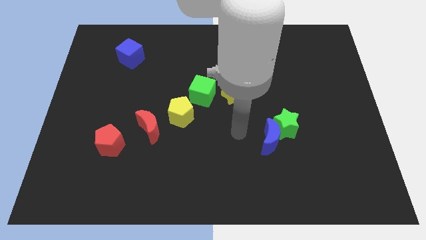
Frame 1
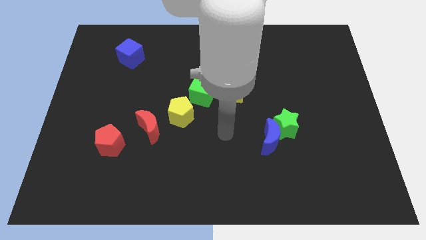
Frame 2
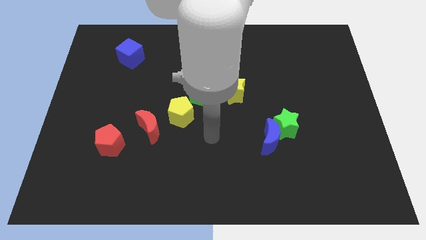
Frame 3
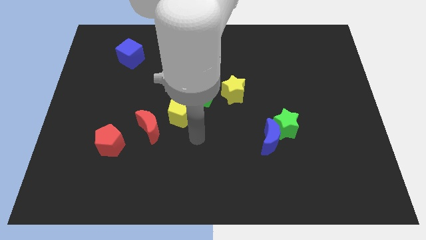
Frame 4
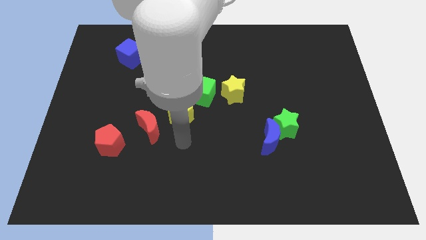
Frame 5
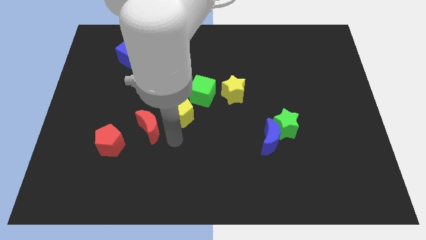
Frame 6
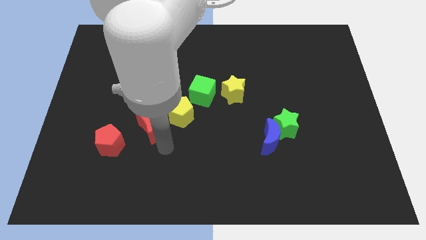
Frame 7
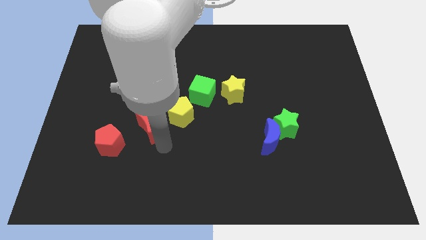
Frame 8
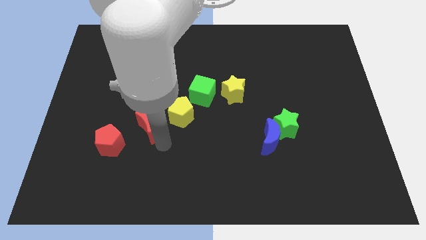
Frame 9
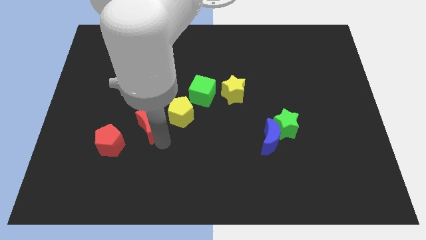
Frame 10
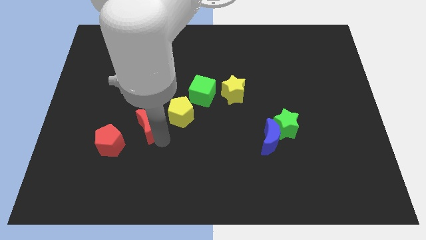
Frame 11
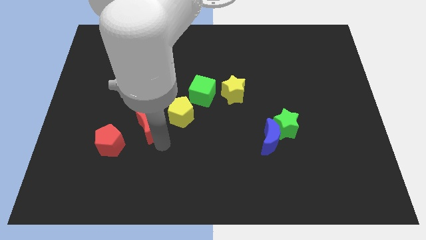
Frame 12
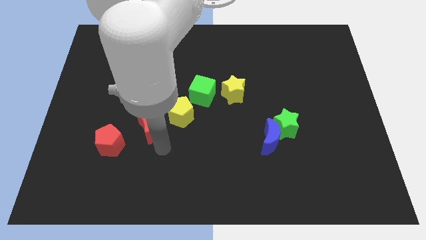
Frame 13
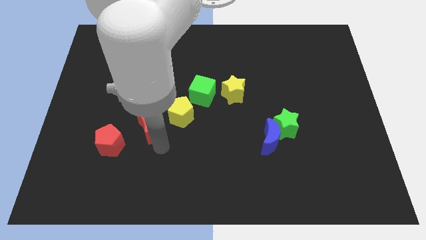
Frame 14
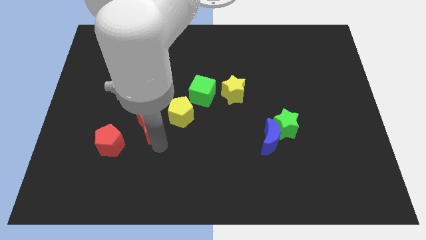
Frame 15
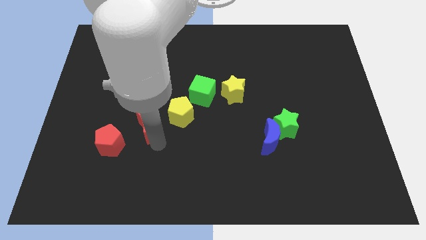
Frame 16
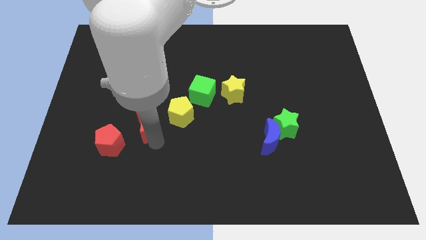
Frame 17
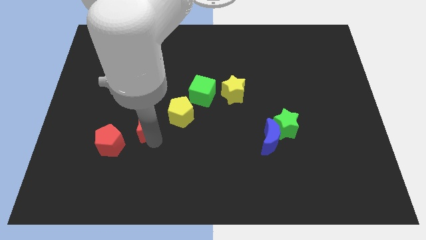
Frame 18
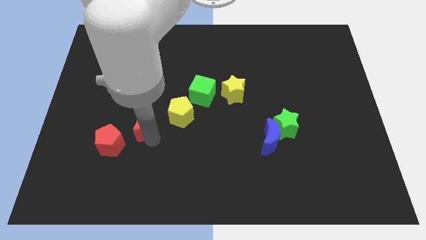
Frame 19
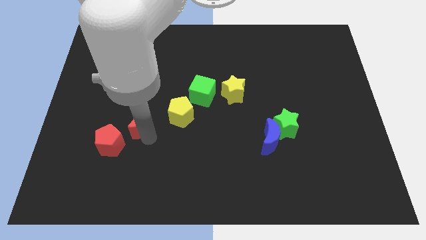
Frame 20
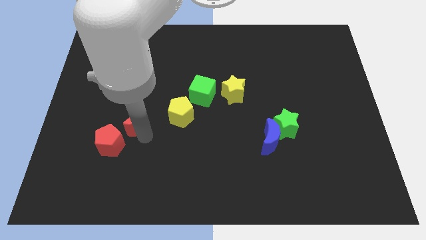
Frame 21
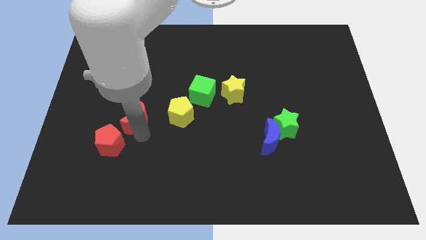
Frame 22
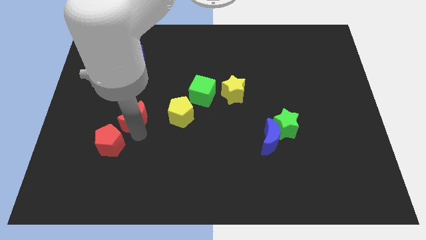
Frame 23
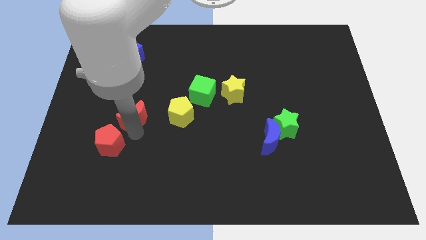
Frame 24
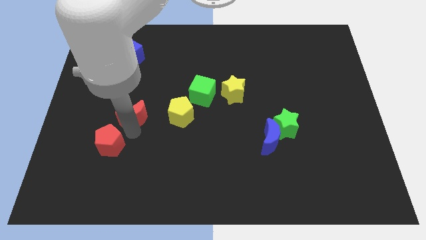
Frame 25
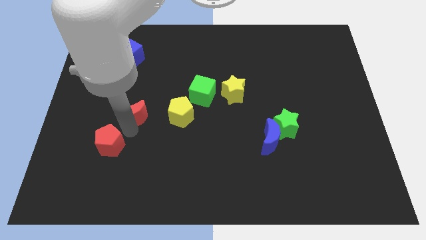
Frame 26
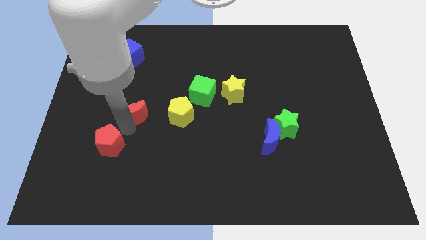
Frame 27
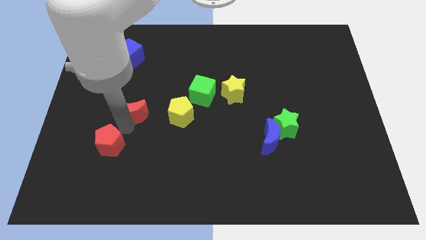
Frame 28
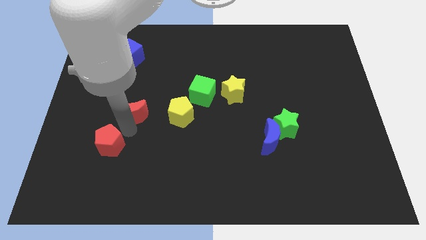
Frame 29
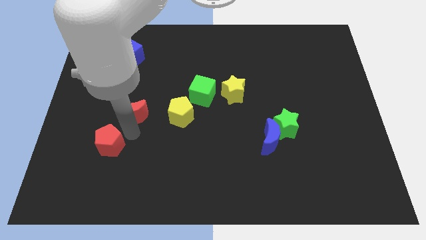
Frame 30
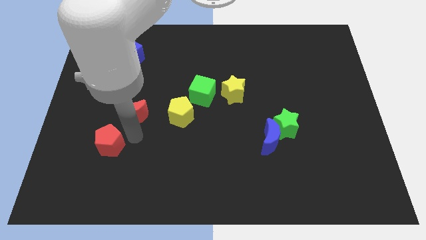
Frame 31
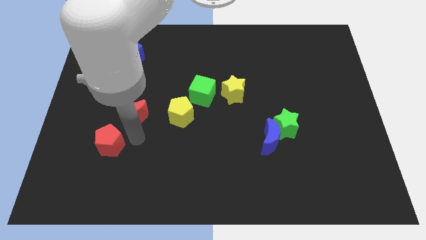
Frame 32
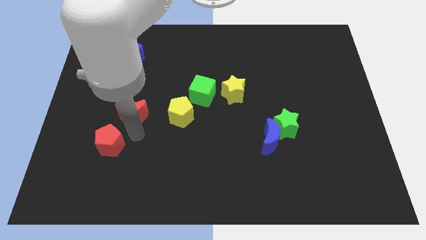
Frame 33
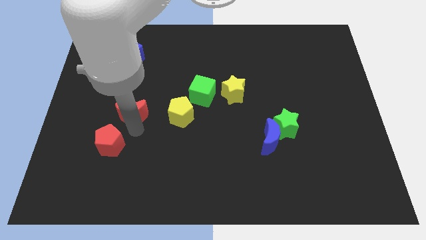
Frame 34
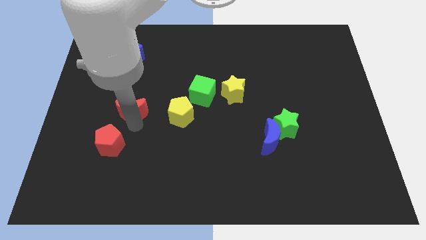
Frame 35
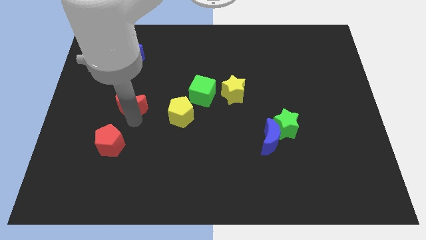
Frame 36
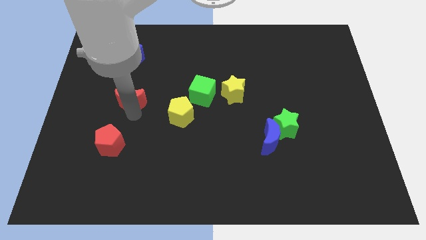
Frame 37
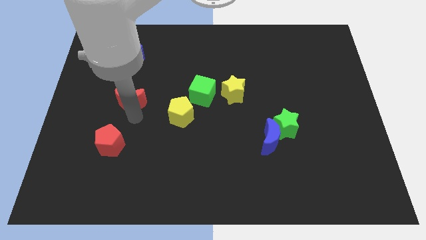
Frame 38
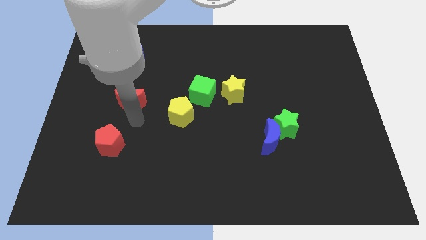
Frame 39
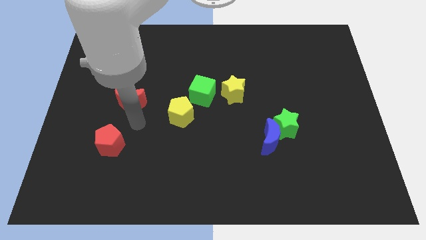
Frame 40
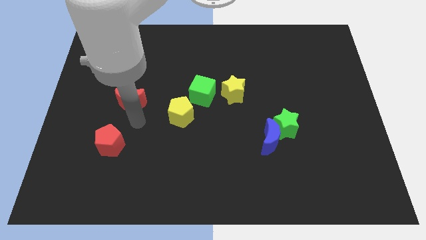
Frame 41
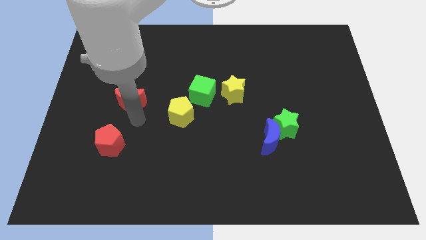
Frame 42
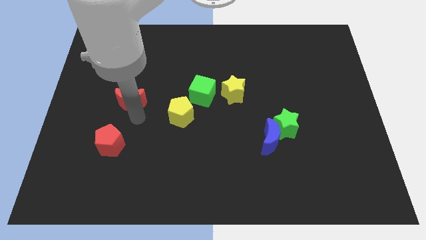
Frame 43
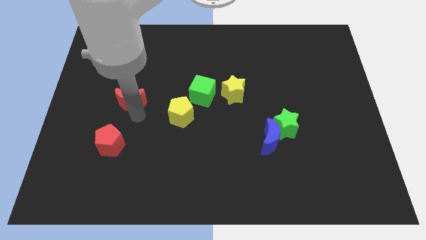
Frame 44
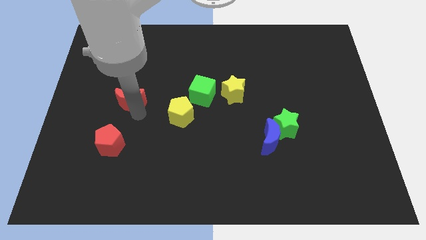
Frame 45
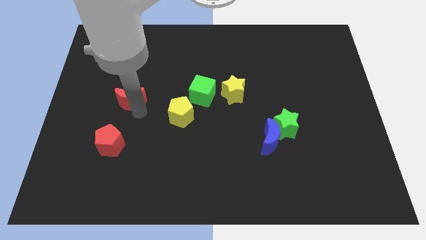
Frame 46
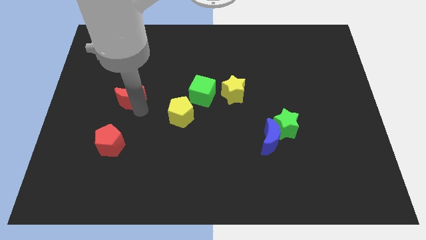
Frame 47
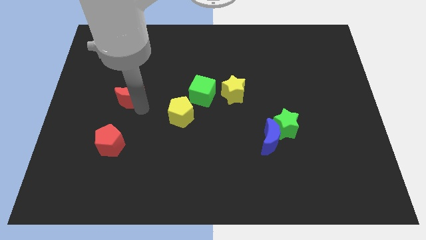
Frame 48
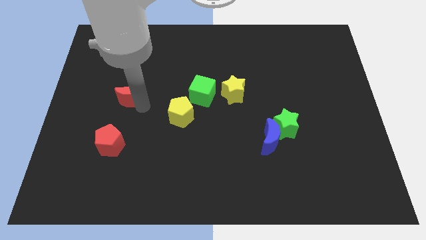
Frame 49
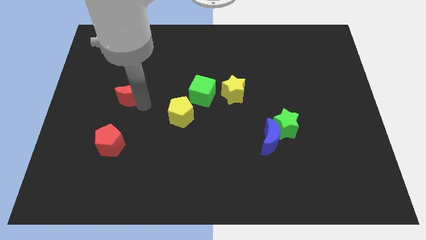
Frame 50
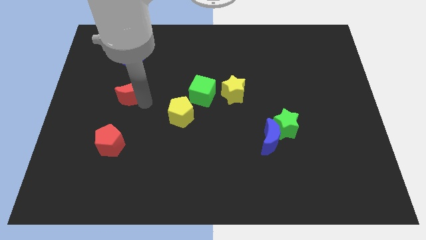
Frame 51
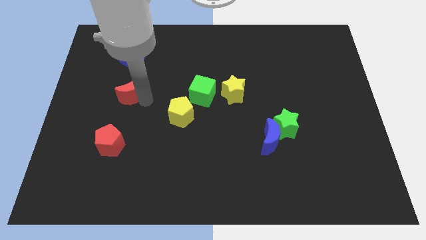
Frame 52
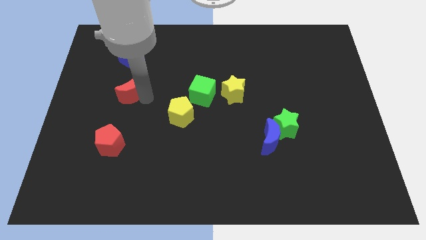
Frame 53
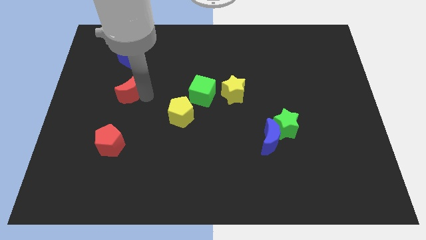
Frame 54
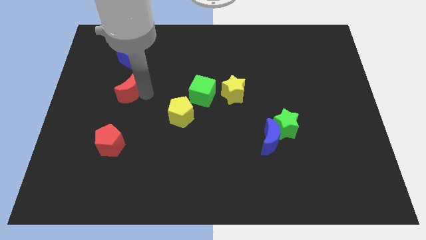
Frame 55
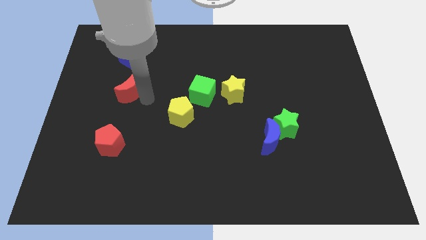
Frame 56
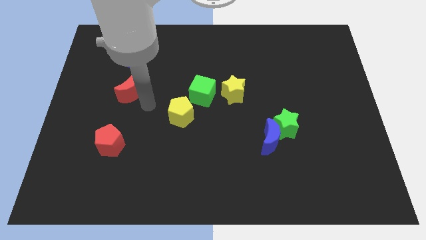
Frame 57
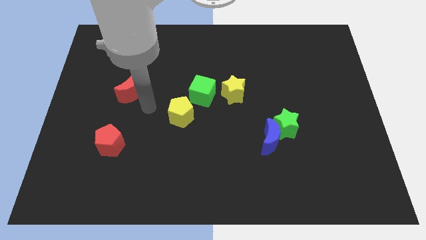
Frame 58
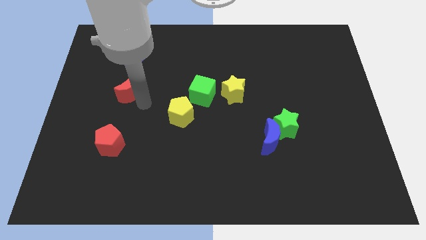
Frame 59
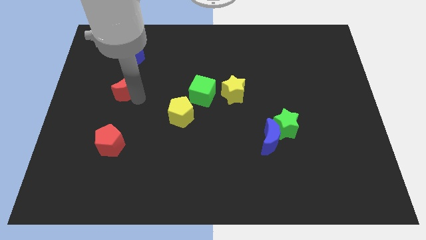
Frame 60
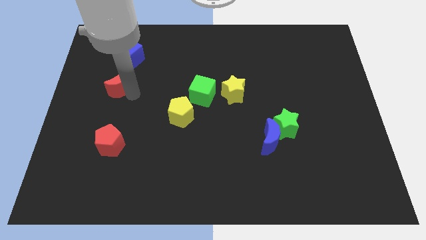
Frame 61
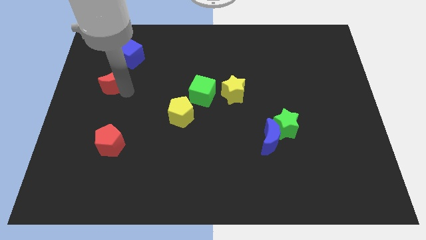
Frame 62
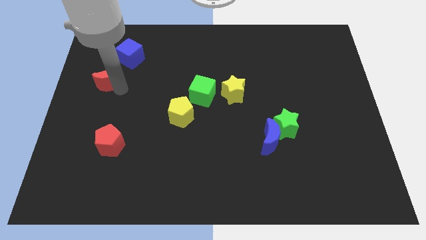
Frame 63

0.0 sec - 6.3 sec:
put the red moon diagonally down and to the left of the blue cube
